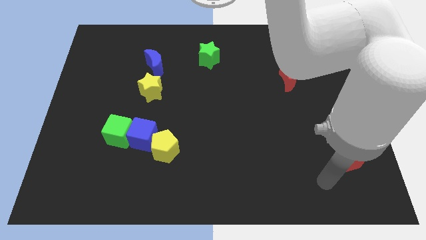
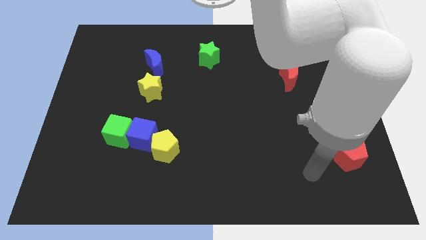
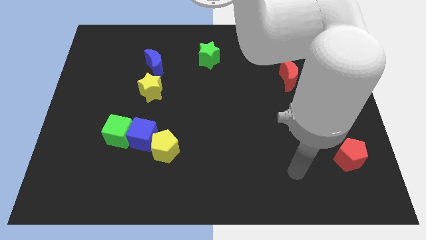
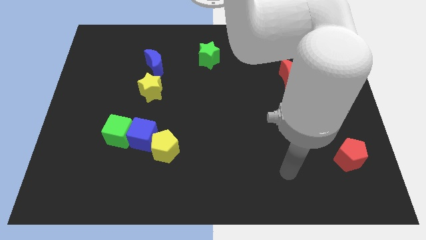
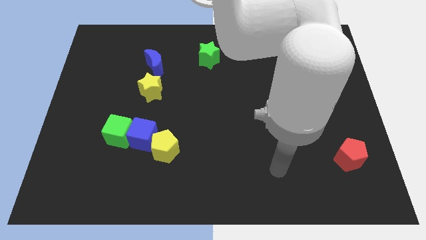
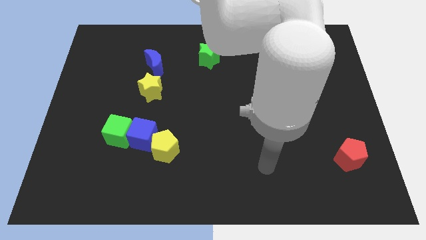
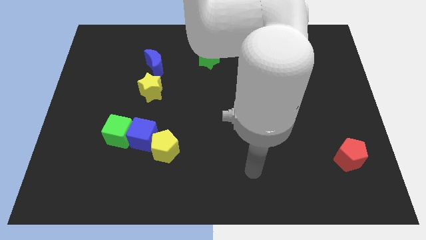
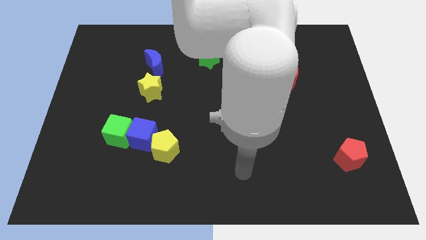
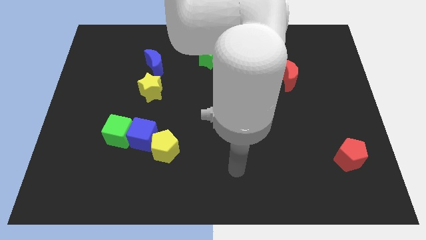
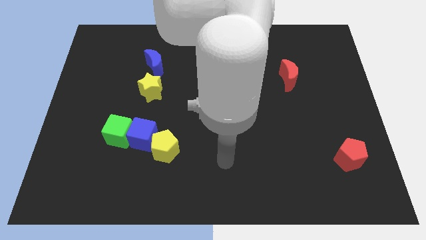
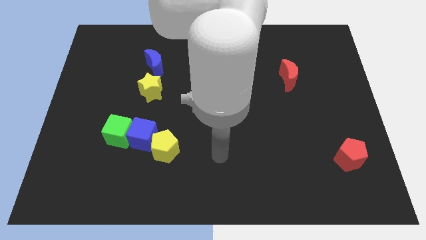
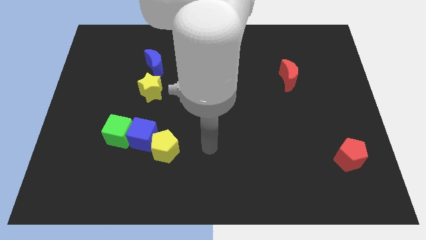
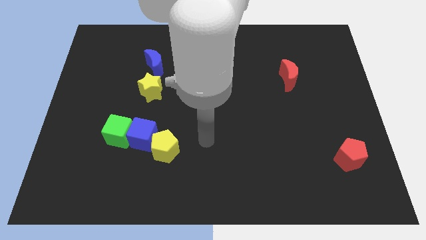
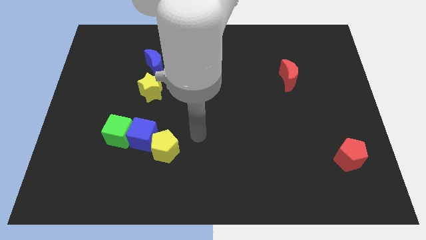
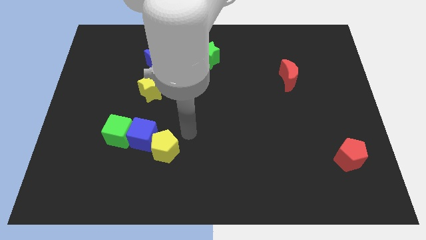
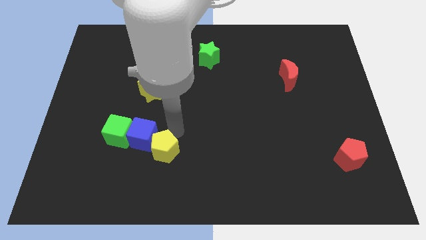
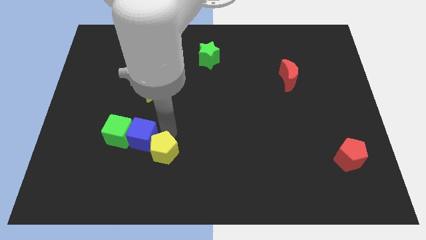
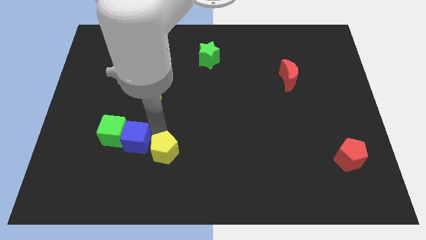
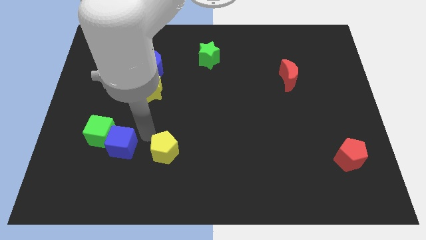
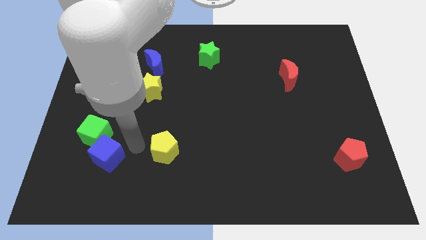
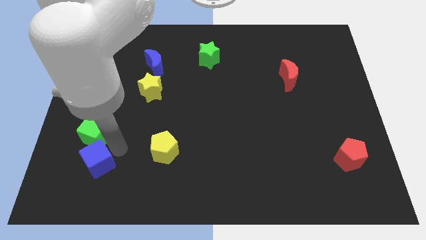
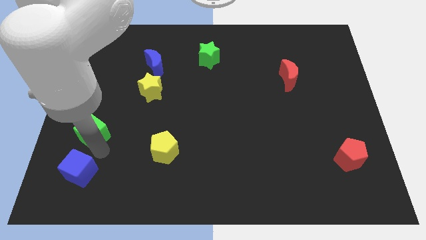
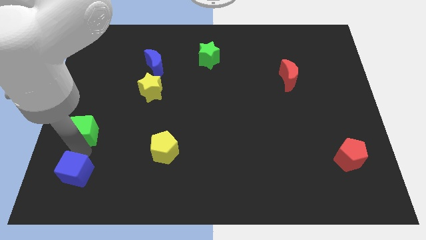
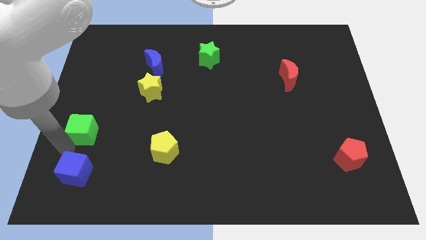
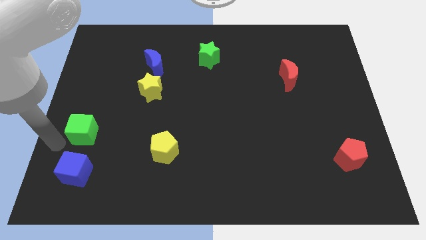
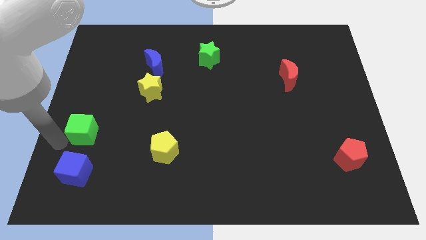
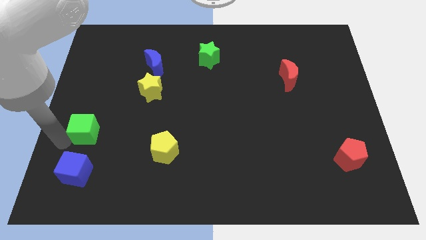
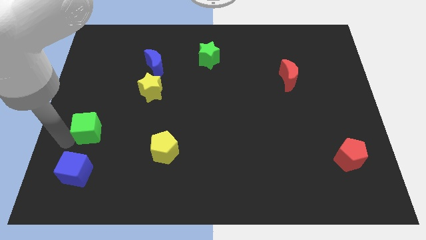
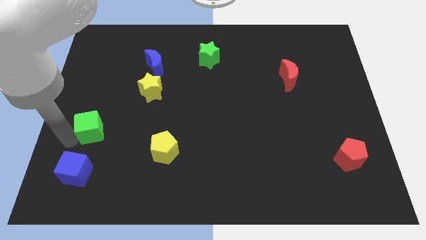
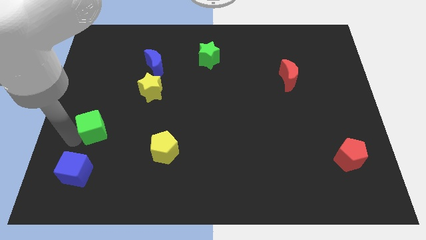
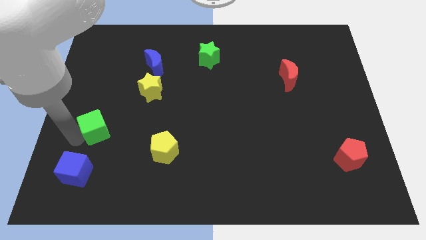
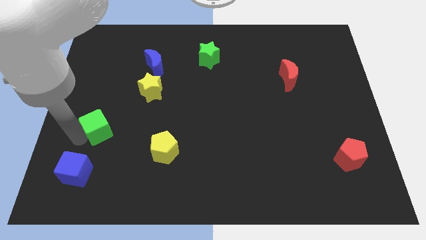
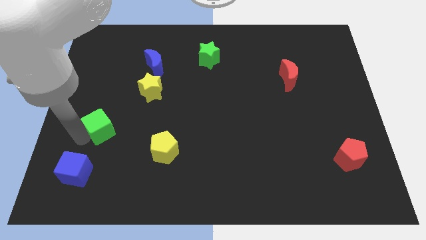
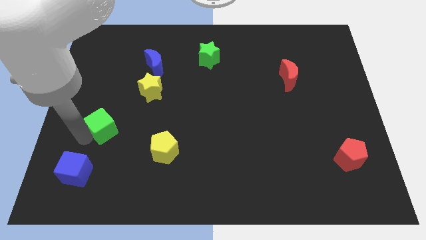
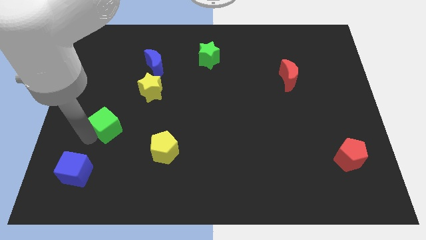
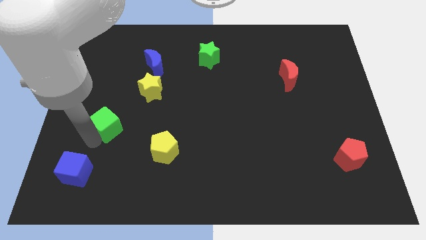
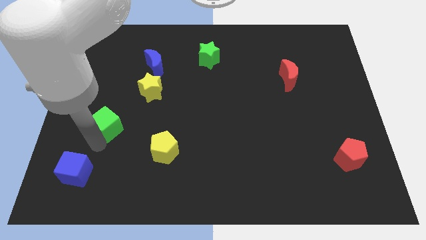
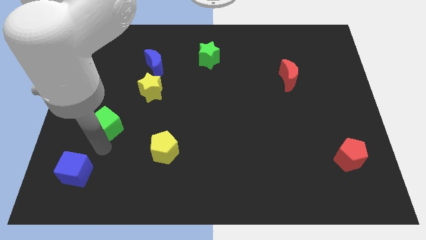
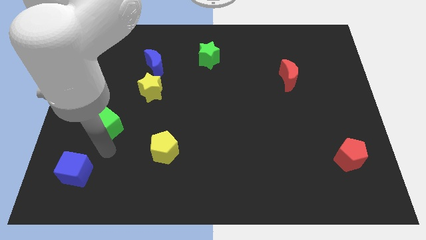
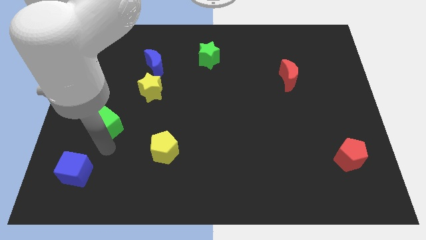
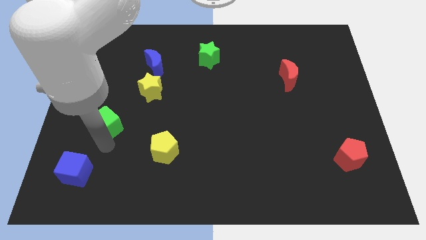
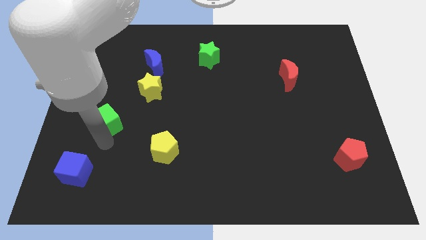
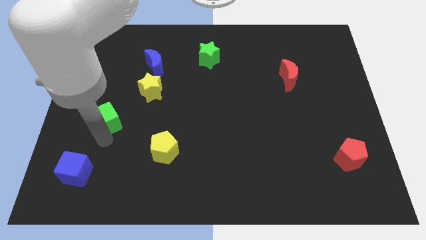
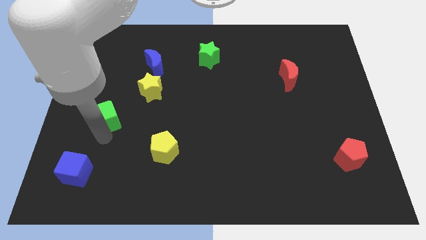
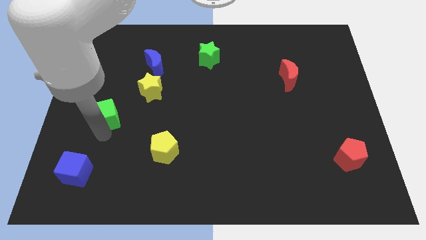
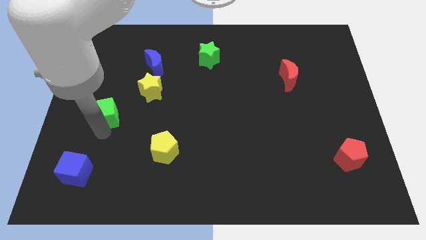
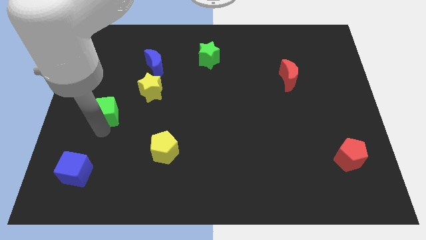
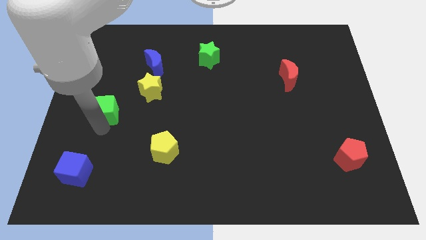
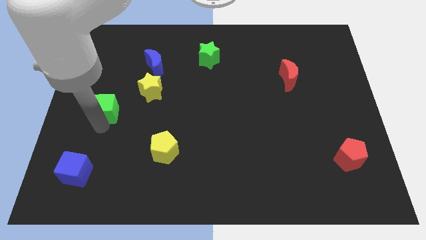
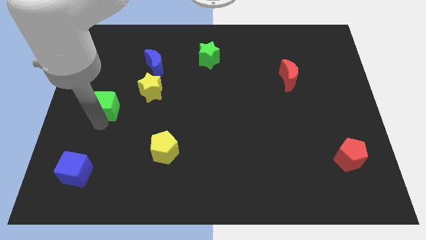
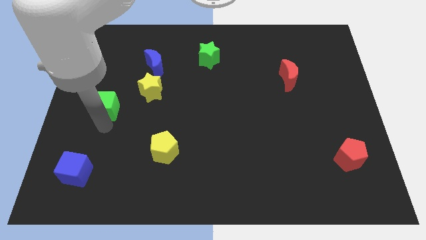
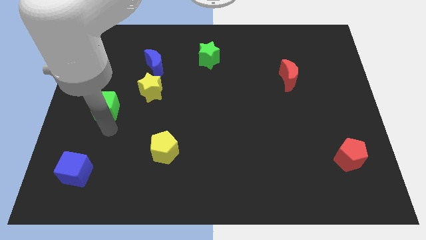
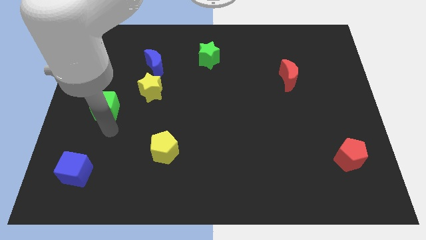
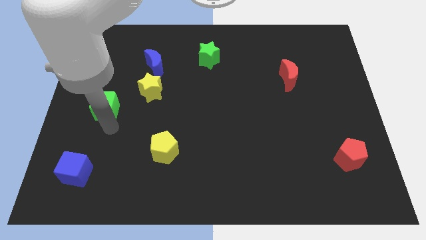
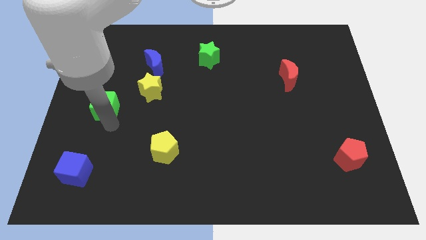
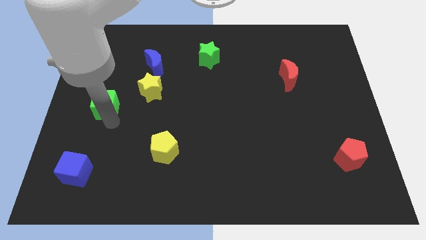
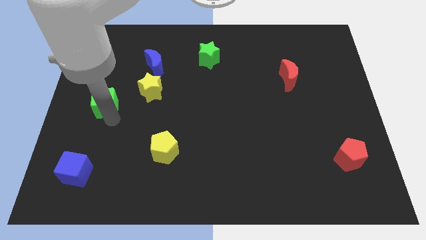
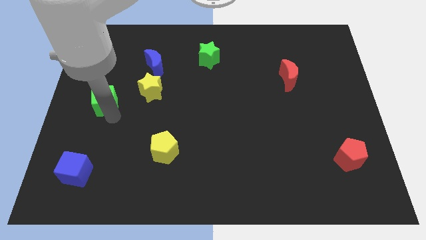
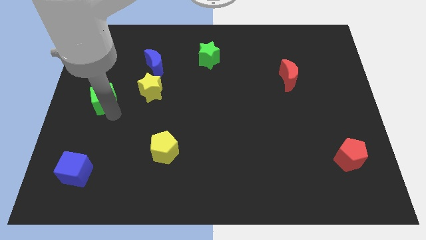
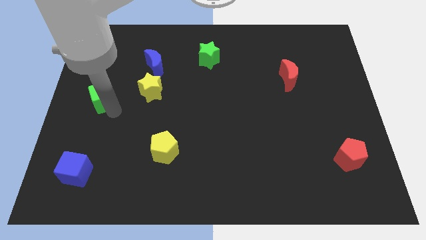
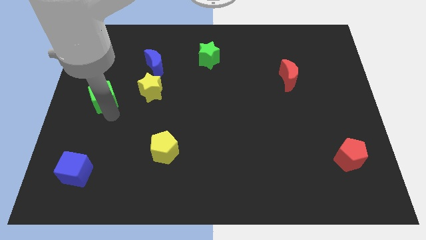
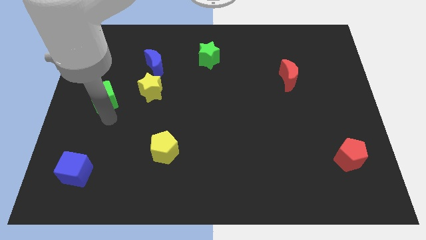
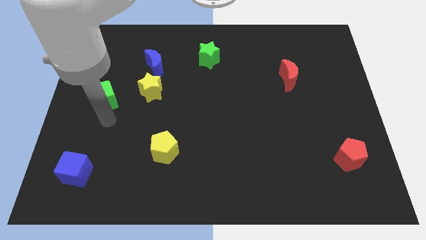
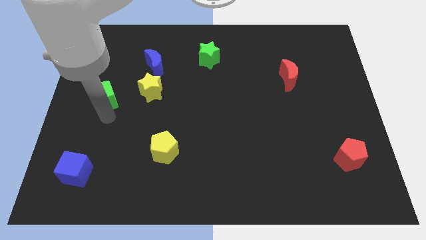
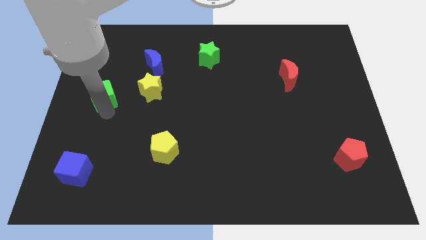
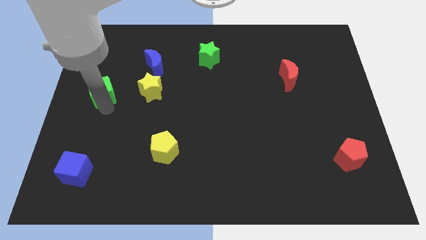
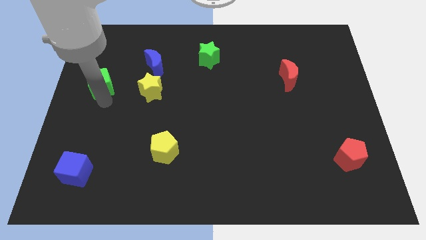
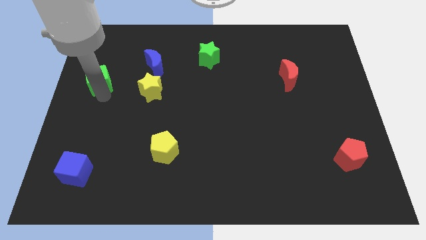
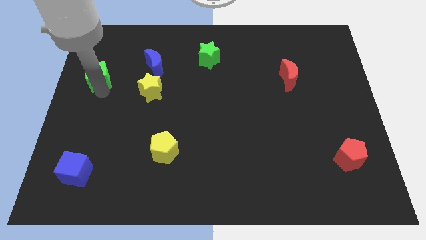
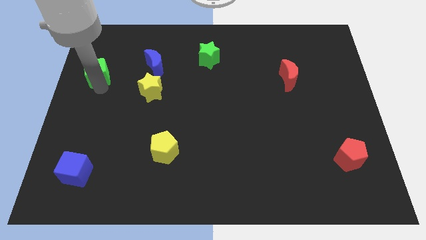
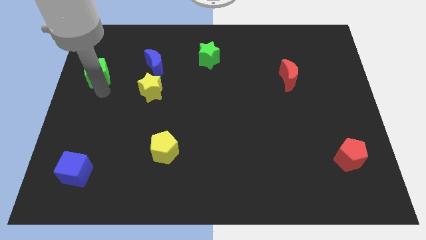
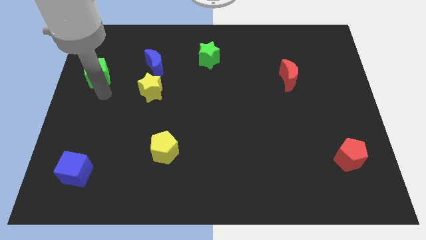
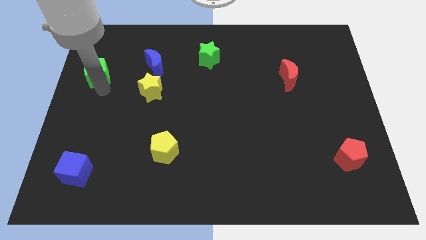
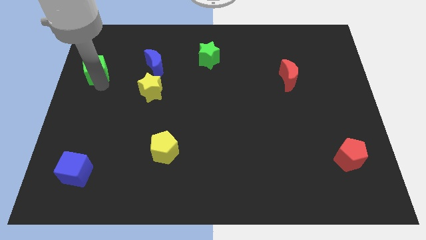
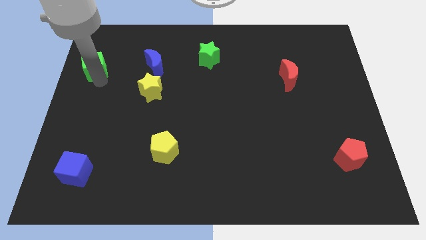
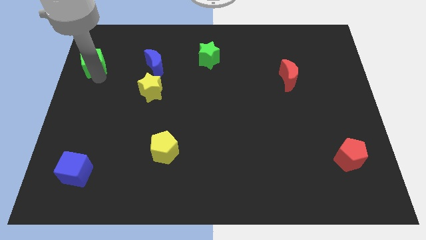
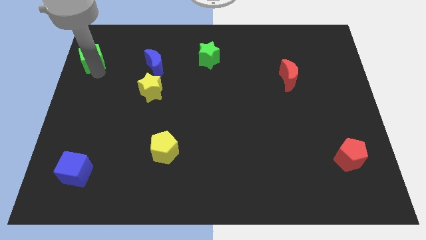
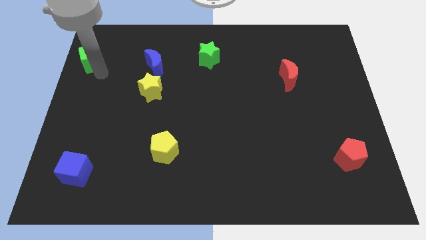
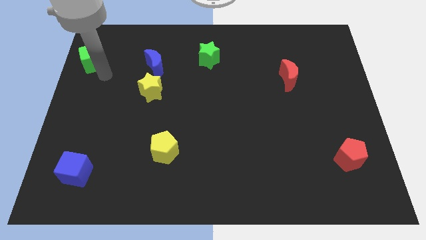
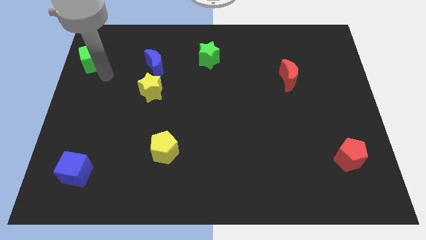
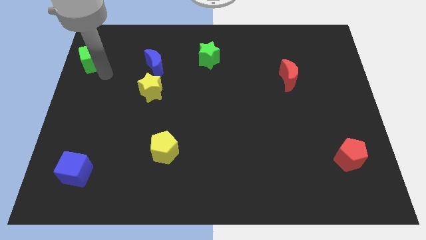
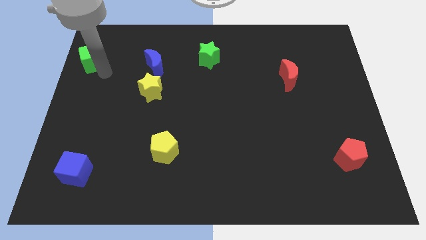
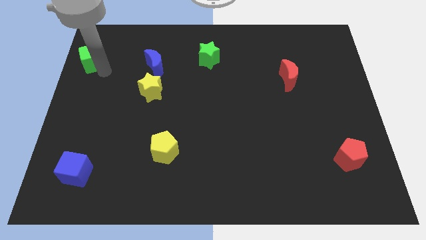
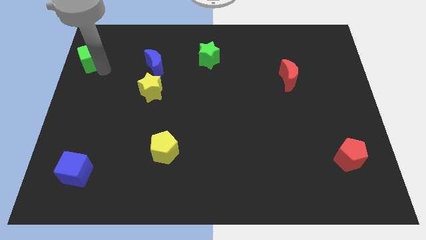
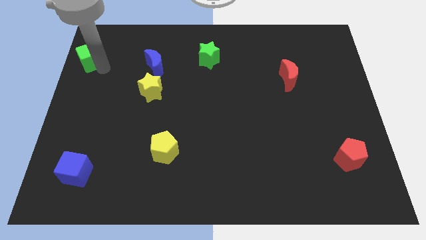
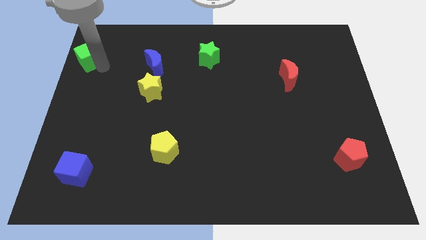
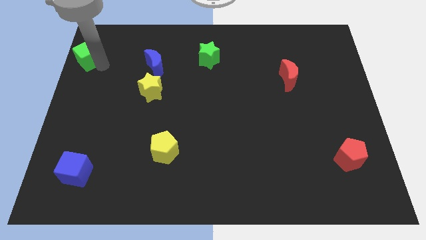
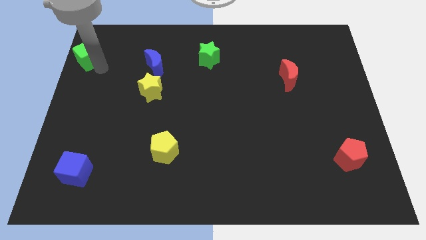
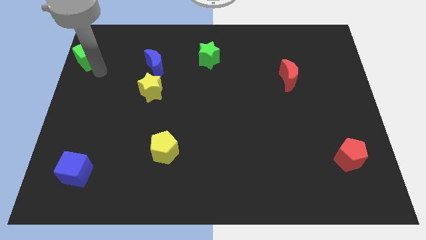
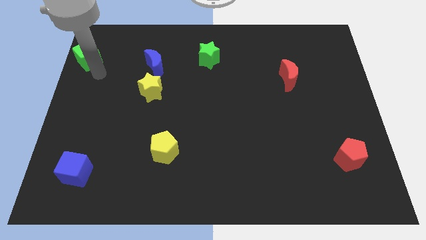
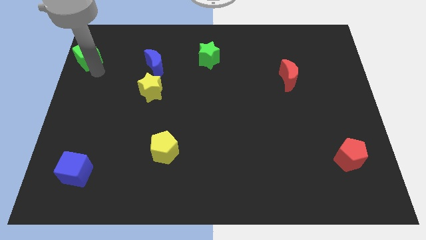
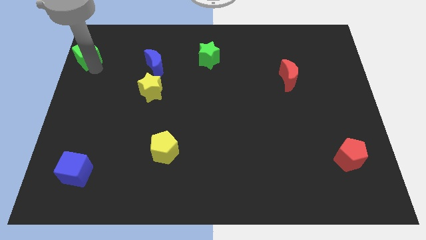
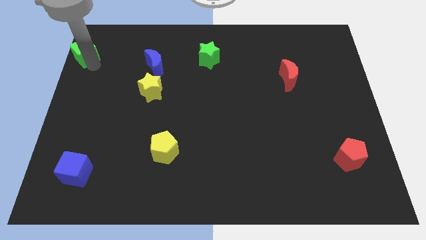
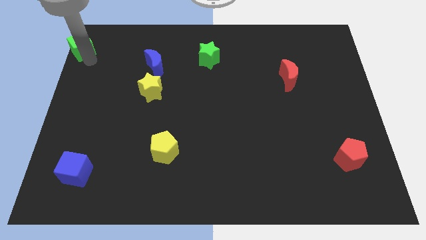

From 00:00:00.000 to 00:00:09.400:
slide the green cube to the top left corner
